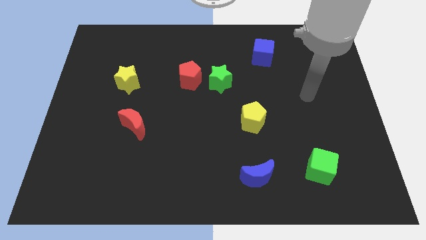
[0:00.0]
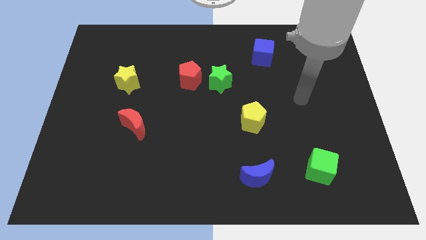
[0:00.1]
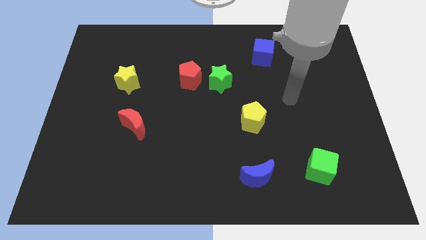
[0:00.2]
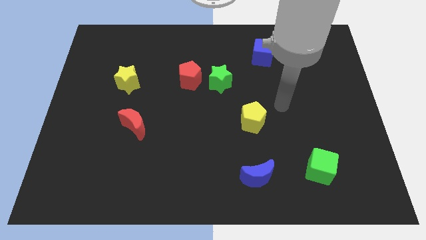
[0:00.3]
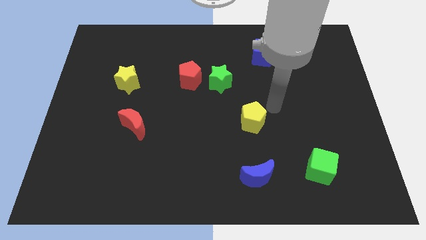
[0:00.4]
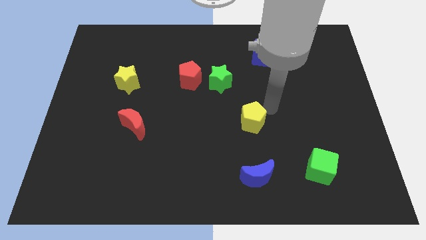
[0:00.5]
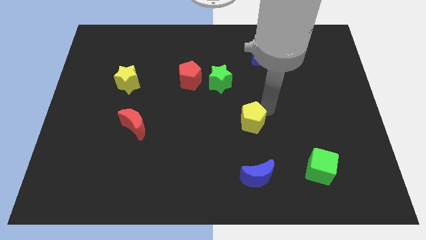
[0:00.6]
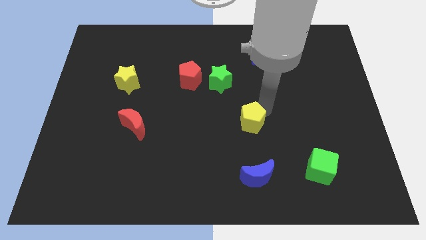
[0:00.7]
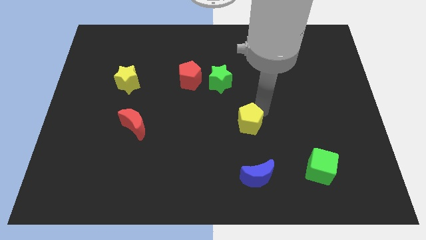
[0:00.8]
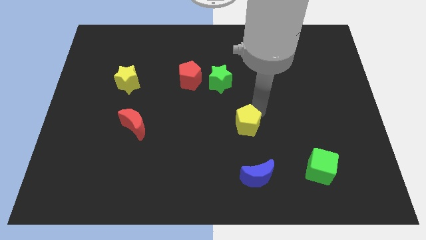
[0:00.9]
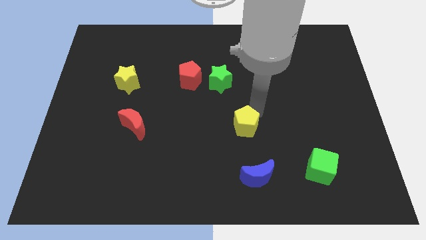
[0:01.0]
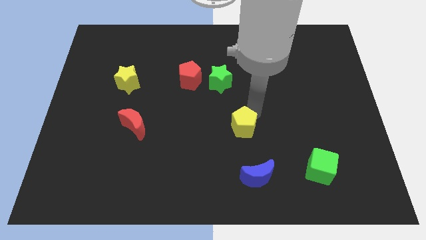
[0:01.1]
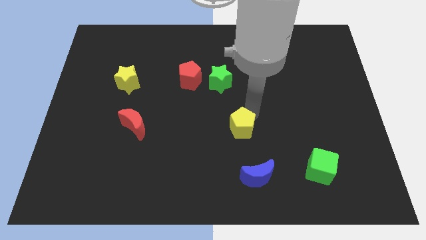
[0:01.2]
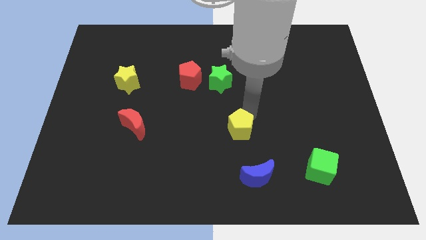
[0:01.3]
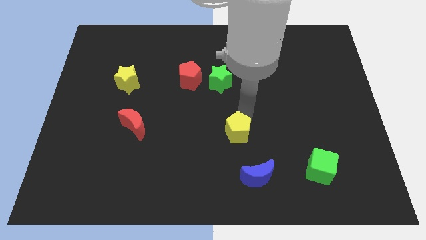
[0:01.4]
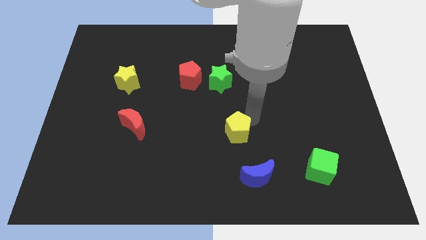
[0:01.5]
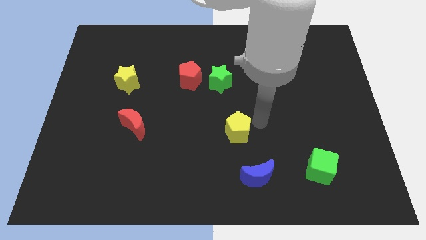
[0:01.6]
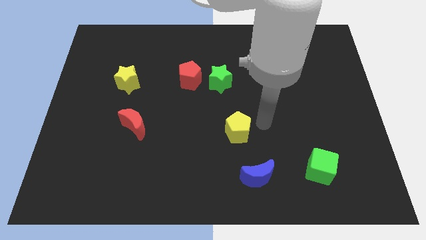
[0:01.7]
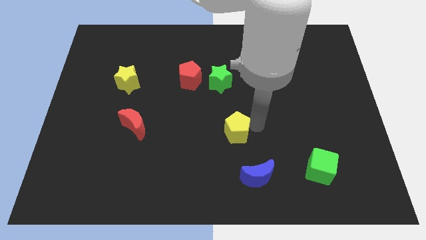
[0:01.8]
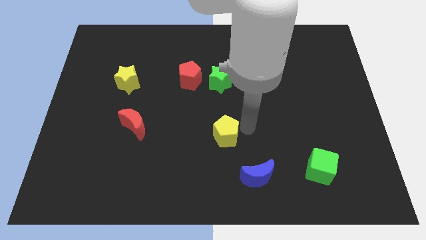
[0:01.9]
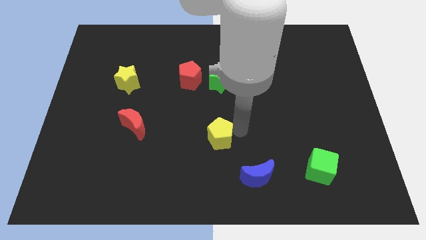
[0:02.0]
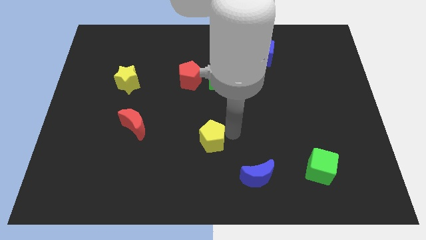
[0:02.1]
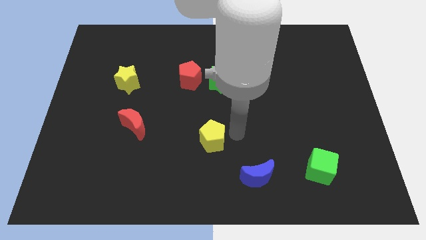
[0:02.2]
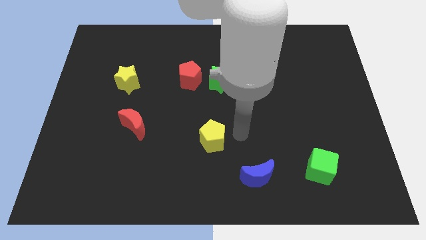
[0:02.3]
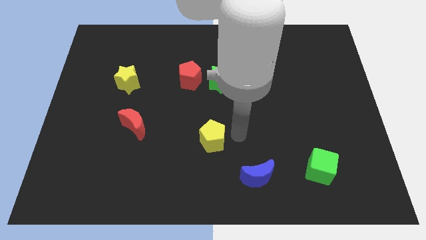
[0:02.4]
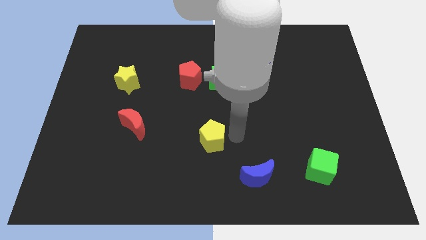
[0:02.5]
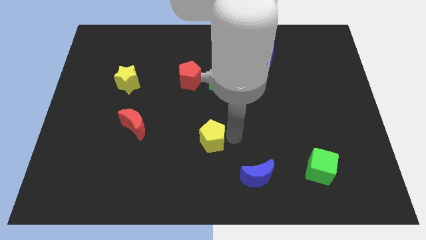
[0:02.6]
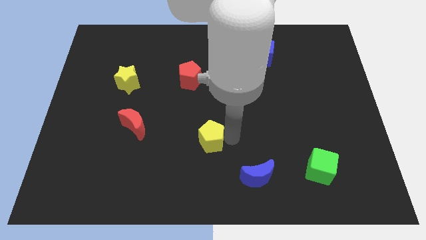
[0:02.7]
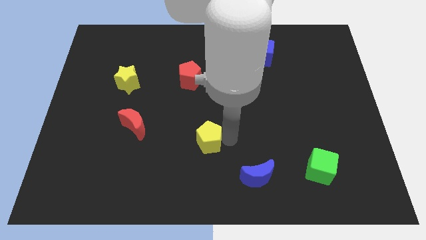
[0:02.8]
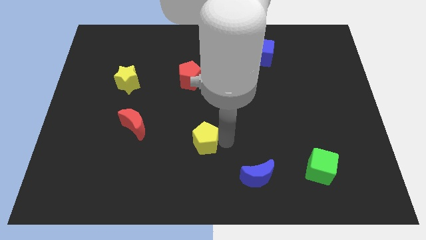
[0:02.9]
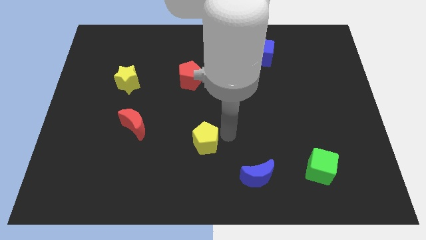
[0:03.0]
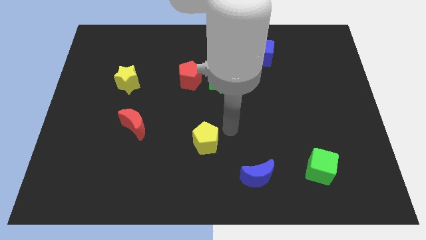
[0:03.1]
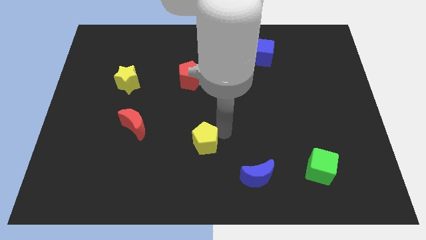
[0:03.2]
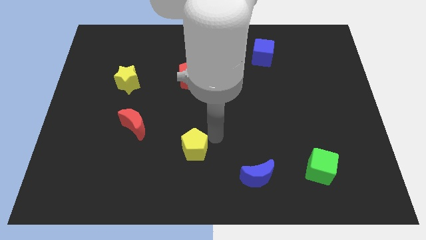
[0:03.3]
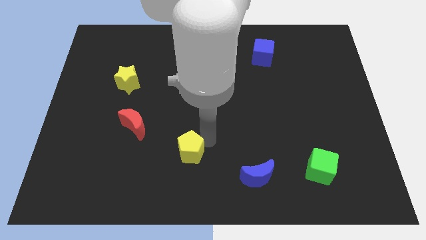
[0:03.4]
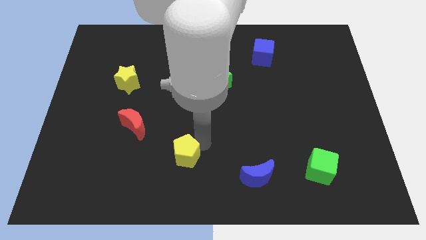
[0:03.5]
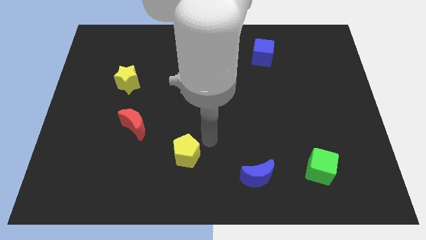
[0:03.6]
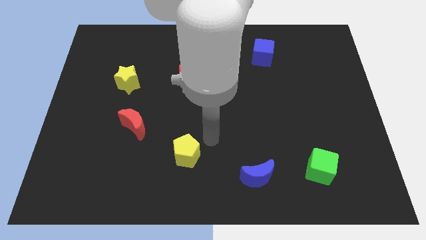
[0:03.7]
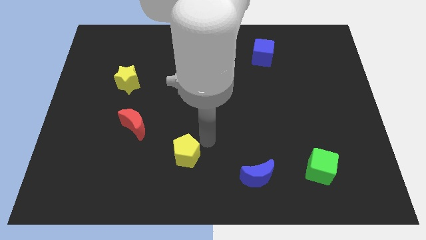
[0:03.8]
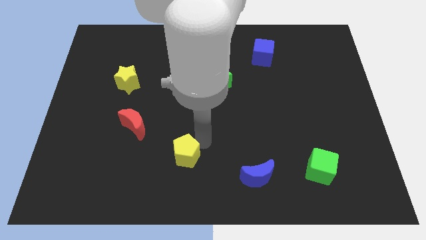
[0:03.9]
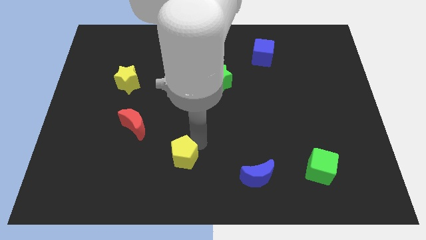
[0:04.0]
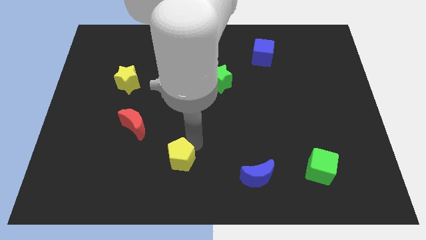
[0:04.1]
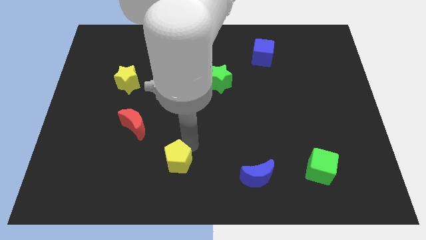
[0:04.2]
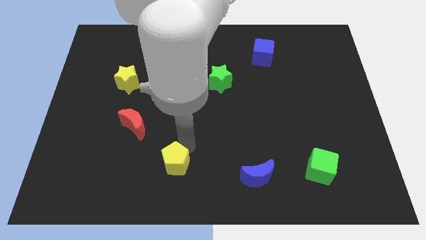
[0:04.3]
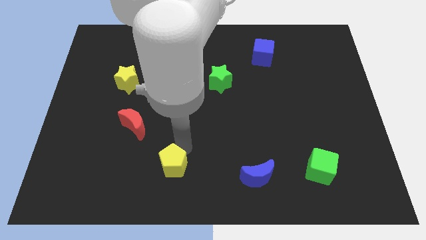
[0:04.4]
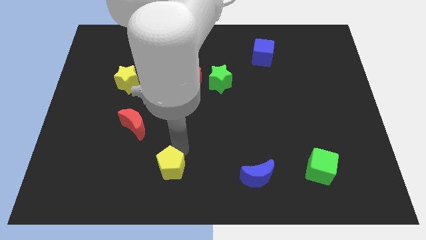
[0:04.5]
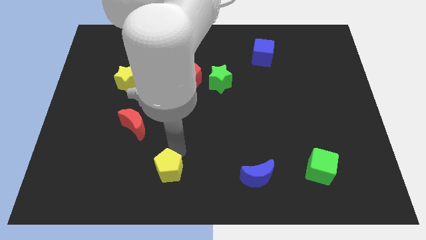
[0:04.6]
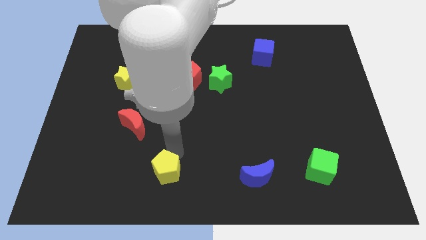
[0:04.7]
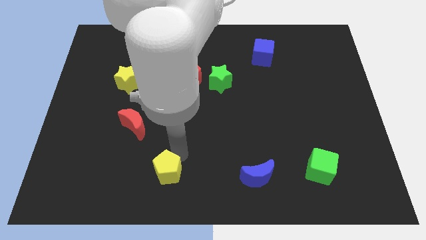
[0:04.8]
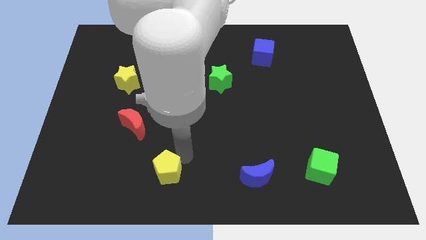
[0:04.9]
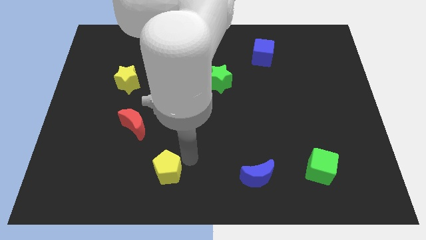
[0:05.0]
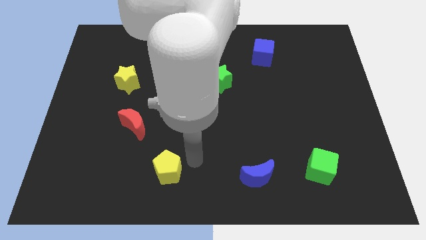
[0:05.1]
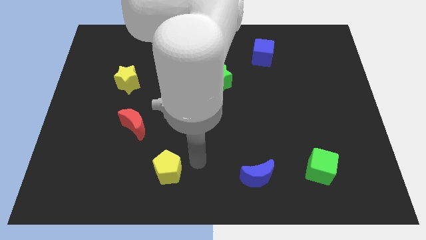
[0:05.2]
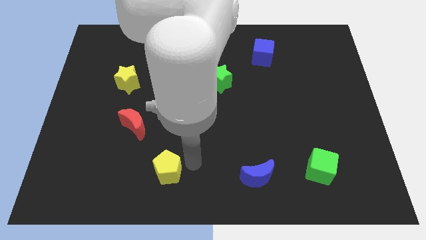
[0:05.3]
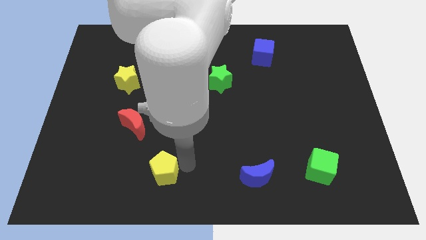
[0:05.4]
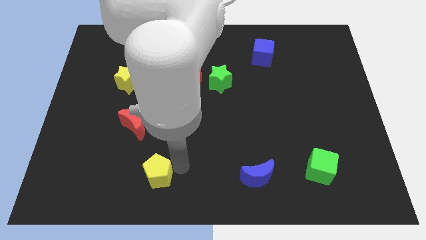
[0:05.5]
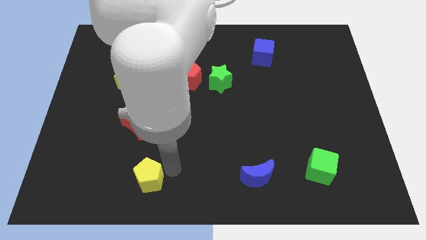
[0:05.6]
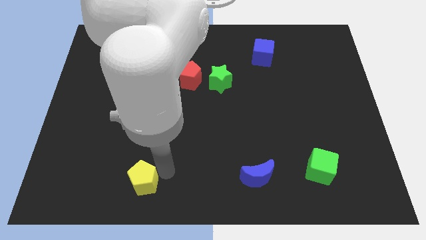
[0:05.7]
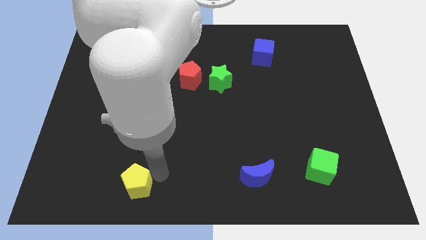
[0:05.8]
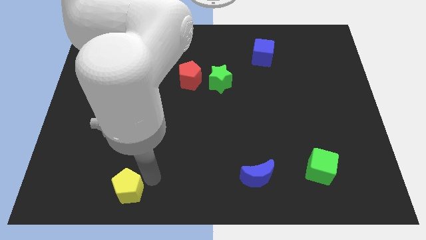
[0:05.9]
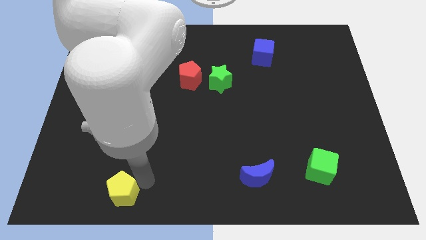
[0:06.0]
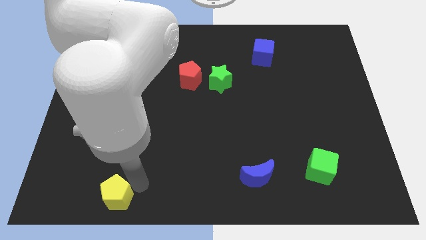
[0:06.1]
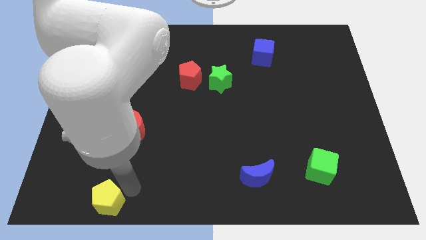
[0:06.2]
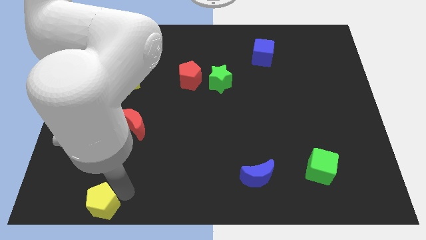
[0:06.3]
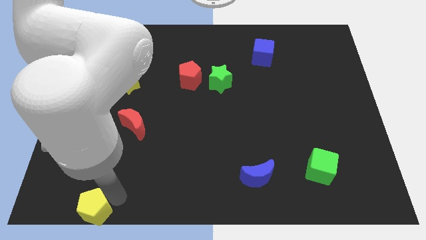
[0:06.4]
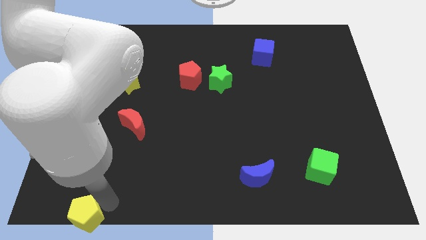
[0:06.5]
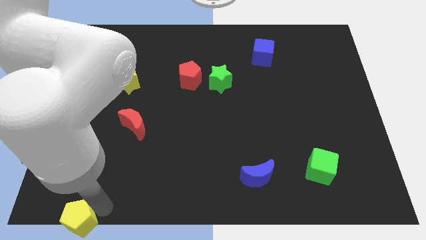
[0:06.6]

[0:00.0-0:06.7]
move the yellow pentagon to the bottom left corner

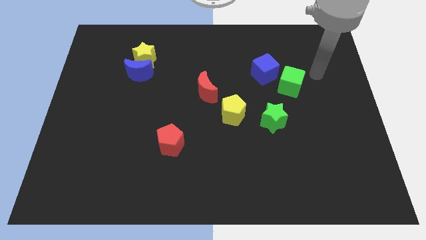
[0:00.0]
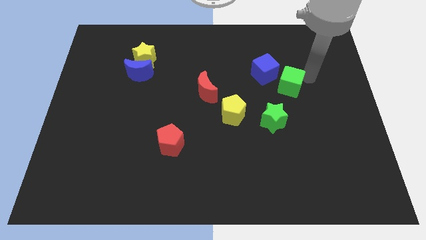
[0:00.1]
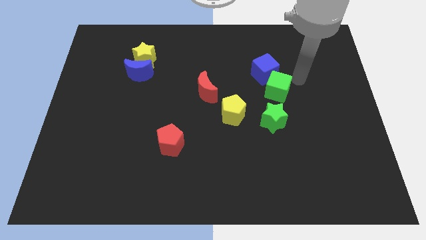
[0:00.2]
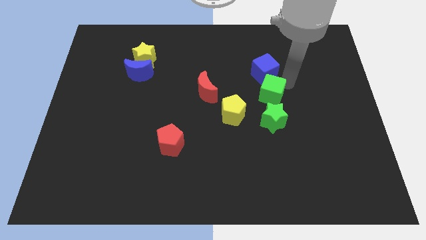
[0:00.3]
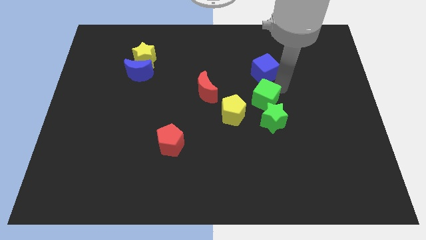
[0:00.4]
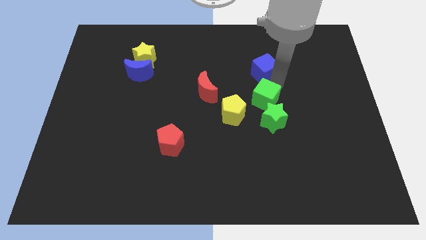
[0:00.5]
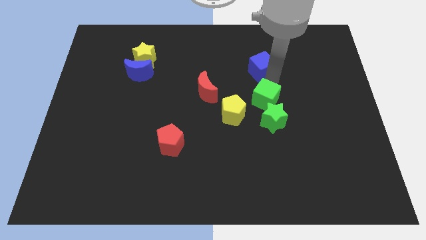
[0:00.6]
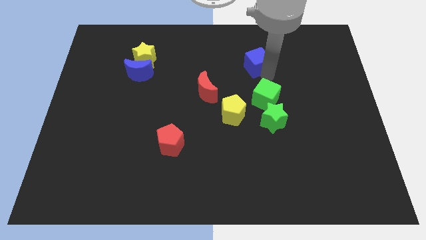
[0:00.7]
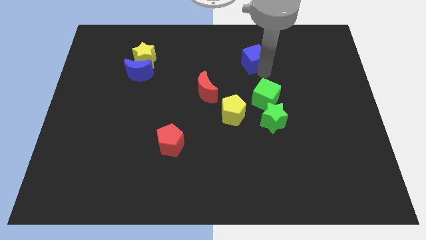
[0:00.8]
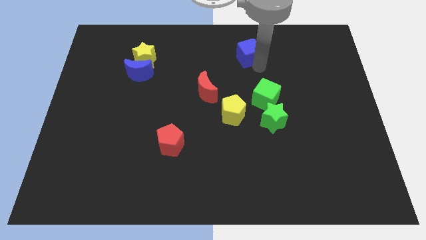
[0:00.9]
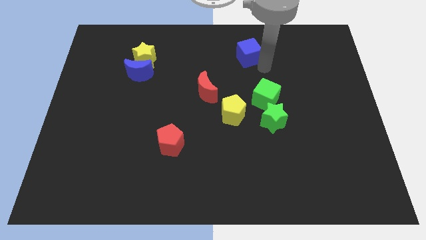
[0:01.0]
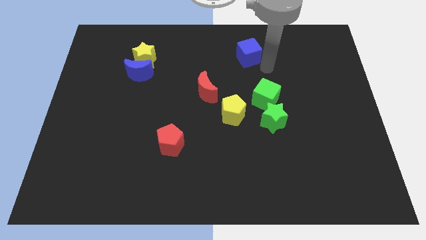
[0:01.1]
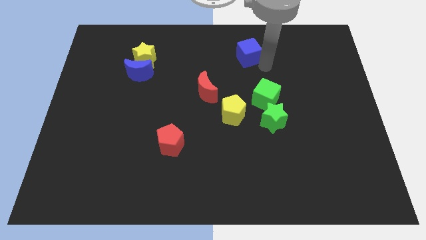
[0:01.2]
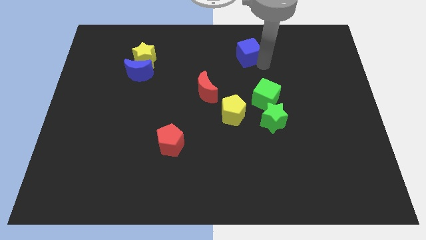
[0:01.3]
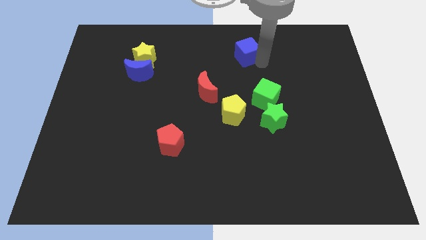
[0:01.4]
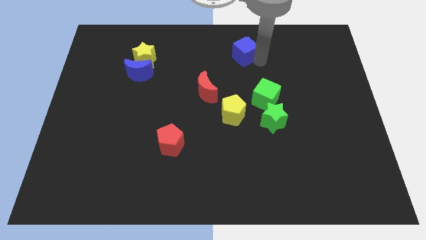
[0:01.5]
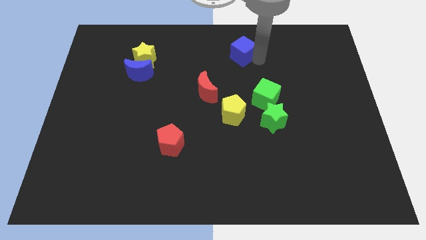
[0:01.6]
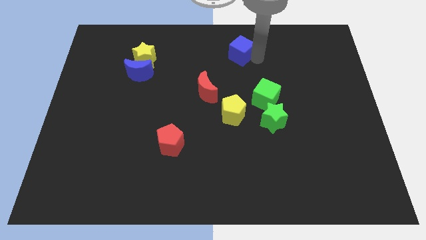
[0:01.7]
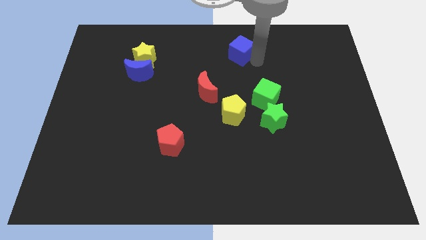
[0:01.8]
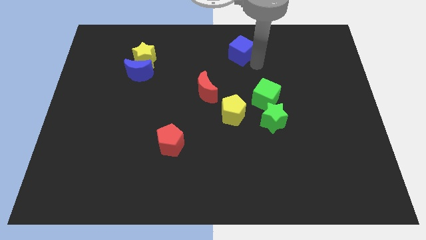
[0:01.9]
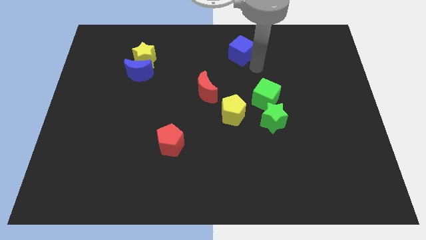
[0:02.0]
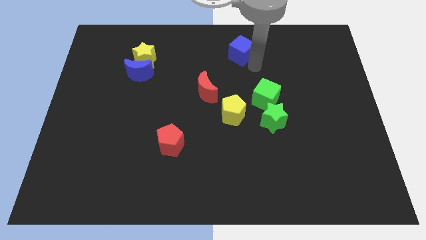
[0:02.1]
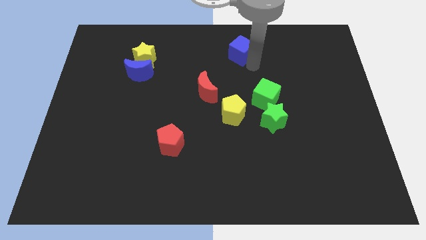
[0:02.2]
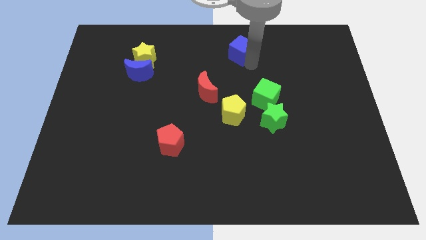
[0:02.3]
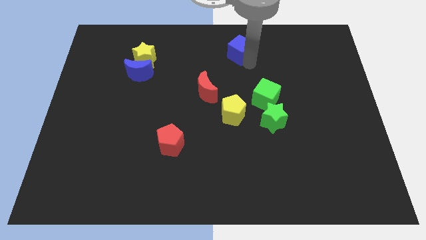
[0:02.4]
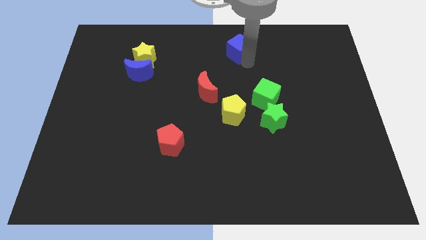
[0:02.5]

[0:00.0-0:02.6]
push the blue cube to the top side
